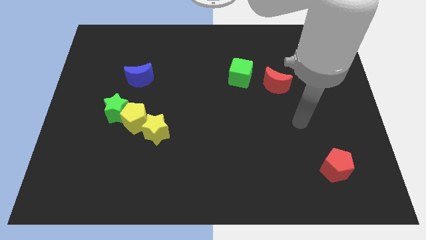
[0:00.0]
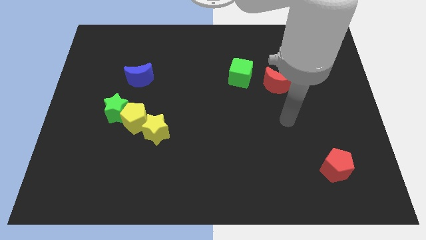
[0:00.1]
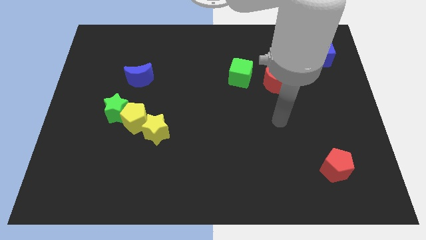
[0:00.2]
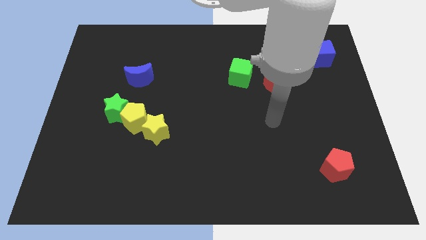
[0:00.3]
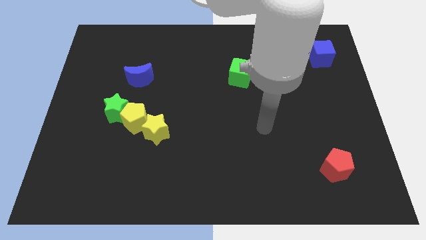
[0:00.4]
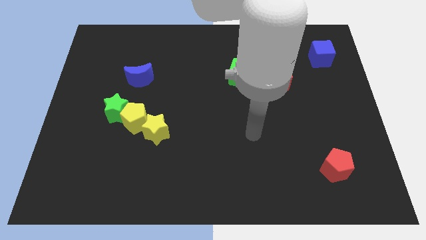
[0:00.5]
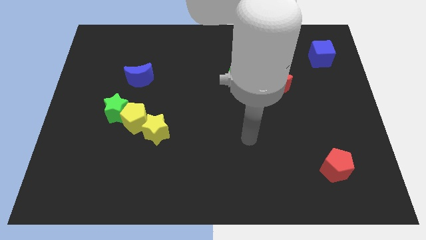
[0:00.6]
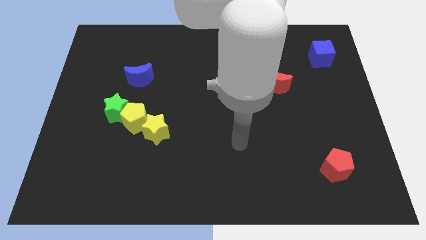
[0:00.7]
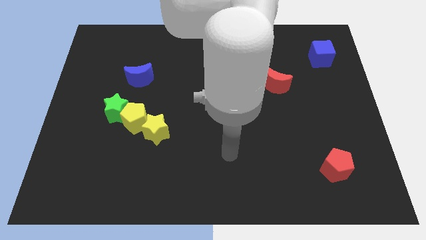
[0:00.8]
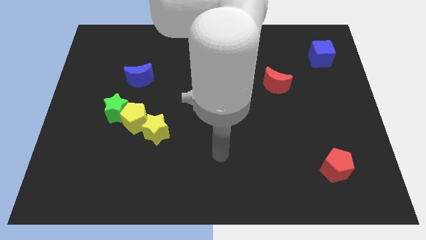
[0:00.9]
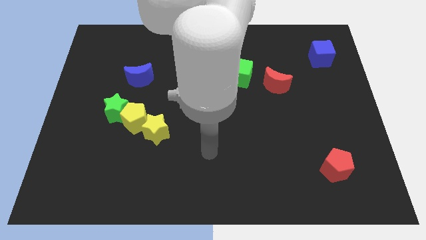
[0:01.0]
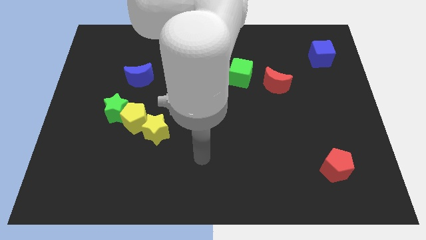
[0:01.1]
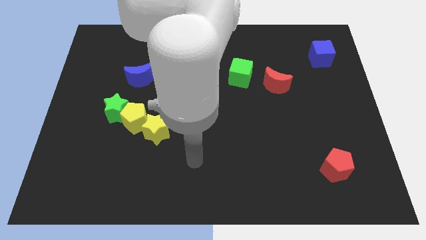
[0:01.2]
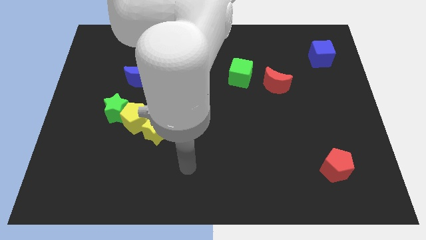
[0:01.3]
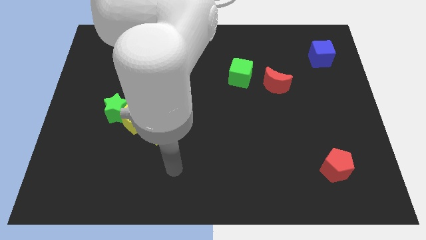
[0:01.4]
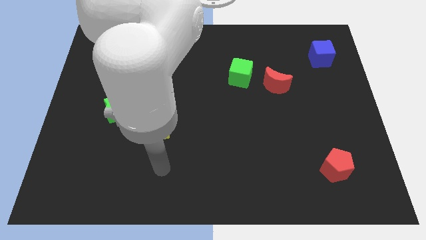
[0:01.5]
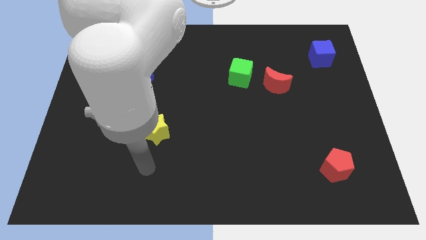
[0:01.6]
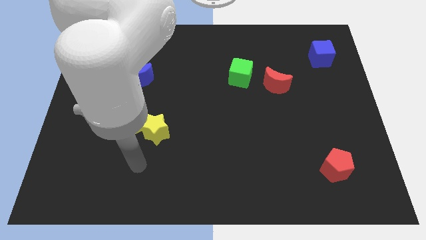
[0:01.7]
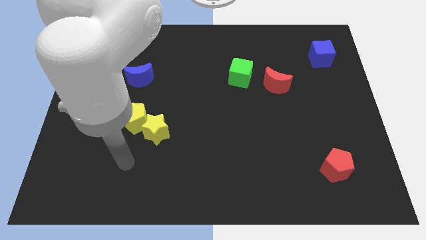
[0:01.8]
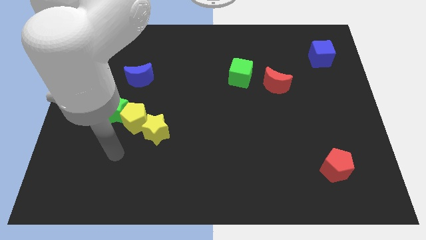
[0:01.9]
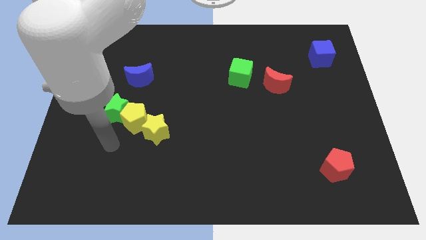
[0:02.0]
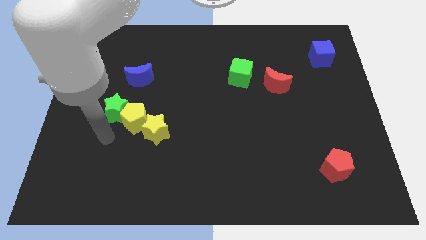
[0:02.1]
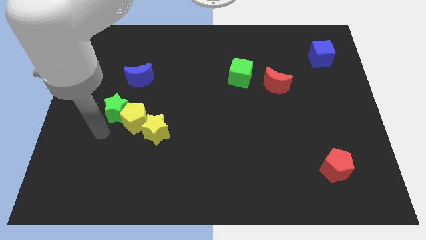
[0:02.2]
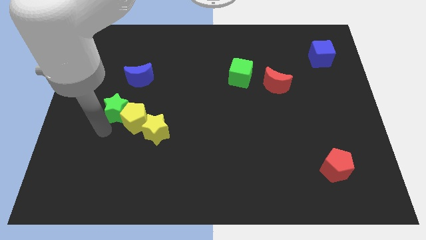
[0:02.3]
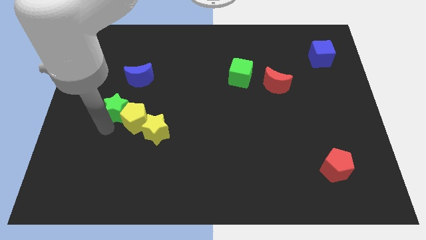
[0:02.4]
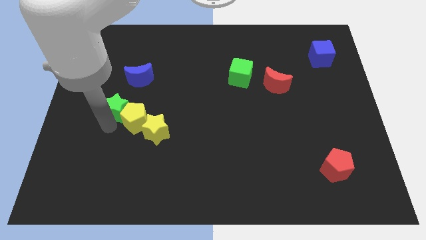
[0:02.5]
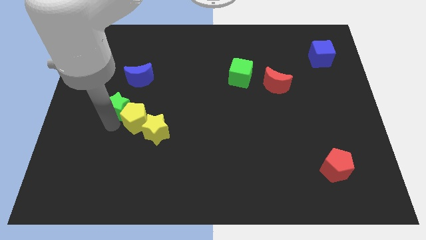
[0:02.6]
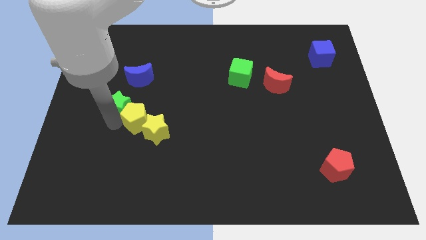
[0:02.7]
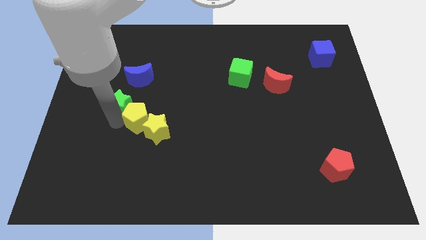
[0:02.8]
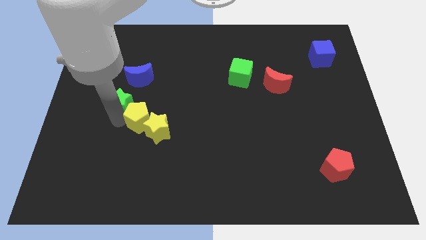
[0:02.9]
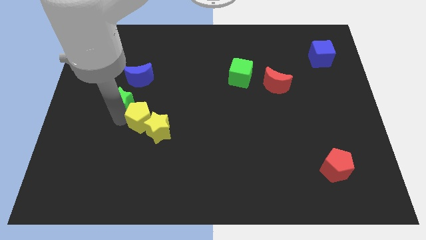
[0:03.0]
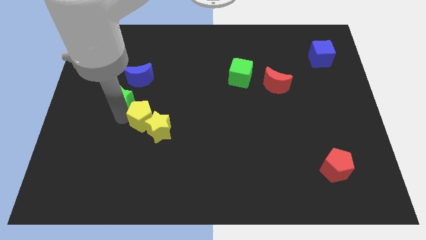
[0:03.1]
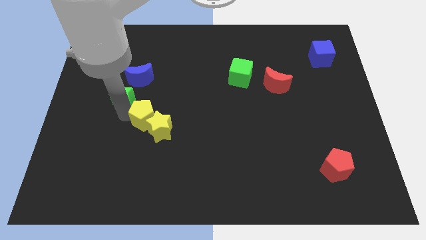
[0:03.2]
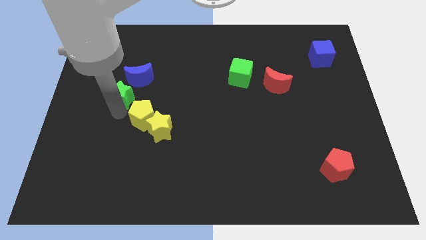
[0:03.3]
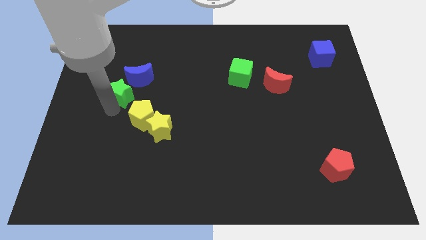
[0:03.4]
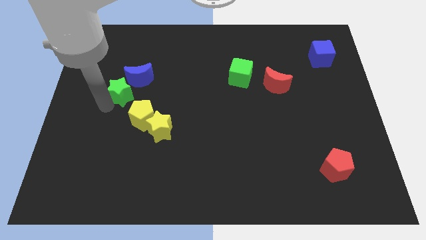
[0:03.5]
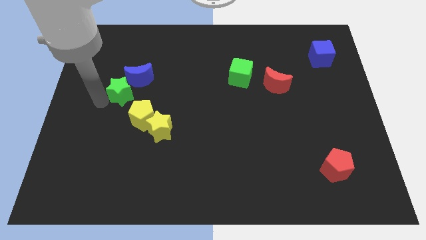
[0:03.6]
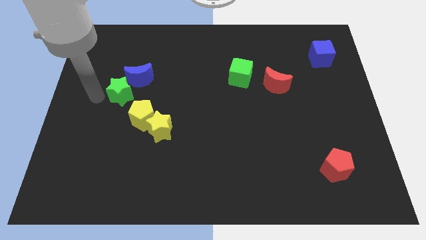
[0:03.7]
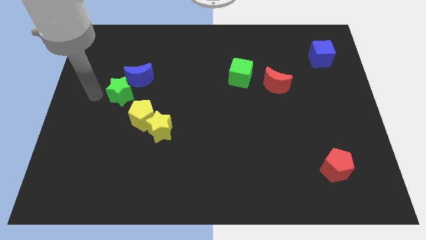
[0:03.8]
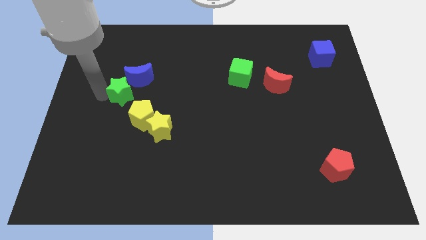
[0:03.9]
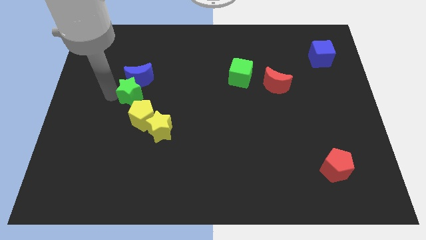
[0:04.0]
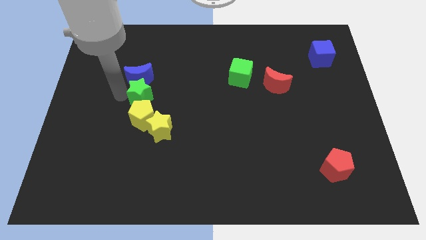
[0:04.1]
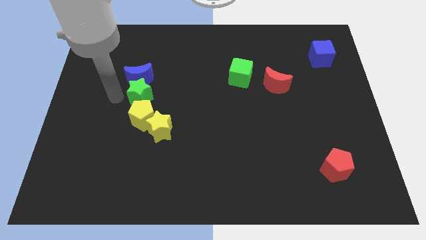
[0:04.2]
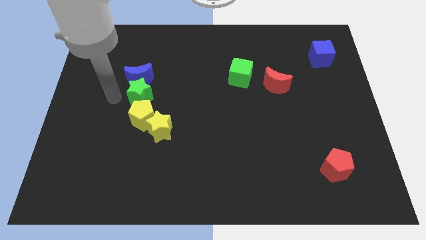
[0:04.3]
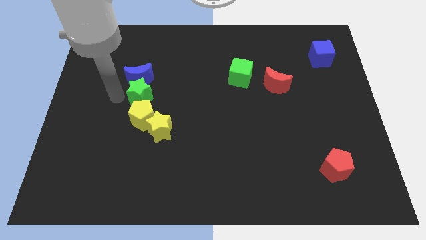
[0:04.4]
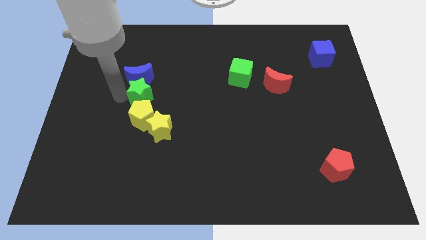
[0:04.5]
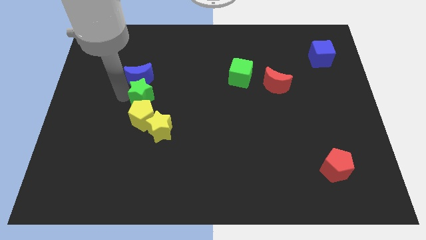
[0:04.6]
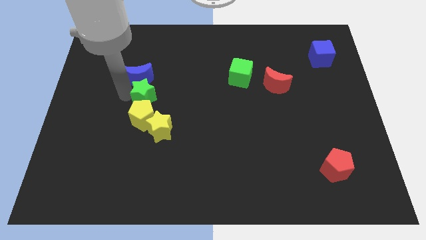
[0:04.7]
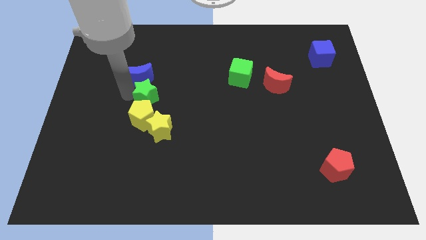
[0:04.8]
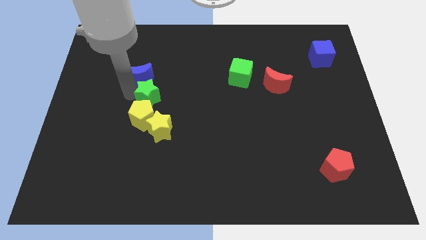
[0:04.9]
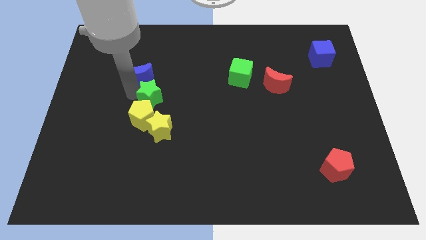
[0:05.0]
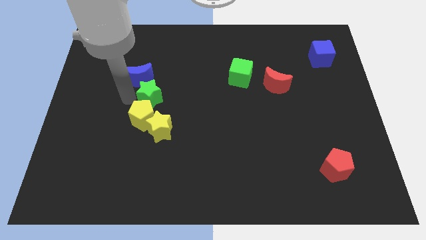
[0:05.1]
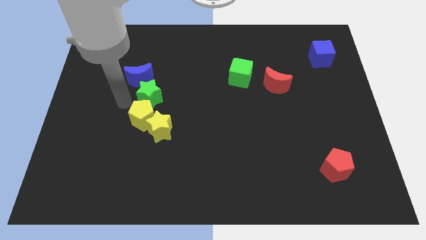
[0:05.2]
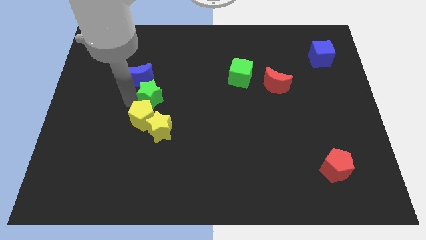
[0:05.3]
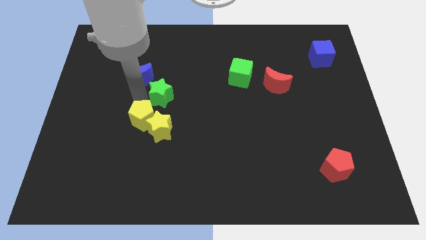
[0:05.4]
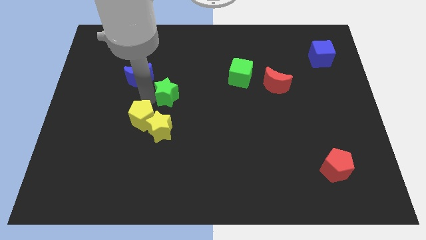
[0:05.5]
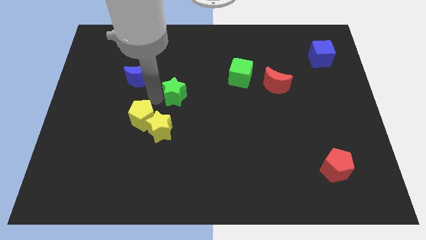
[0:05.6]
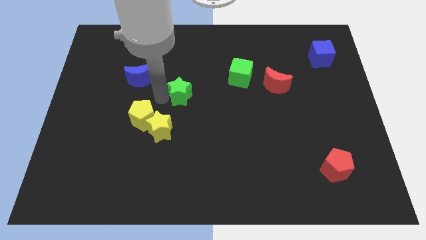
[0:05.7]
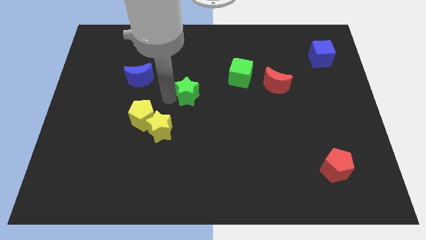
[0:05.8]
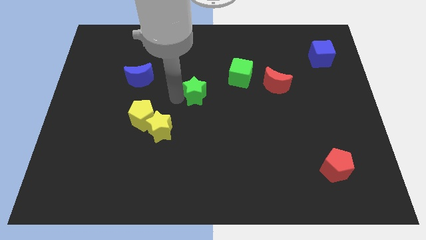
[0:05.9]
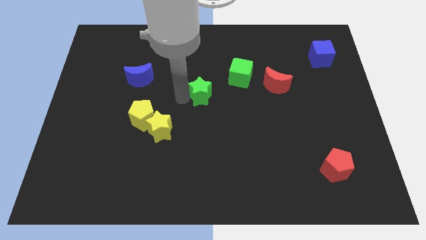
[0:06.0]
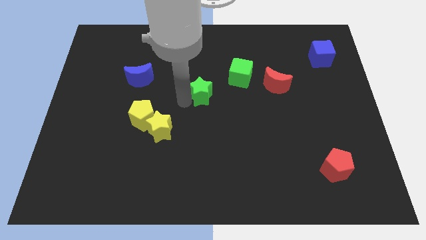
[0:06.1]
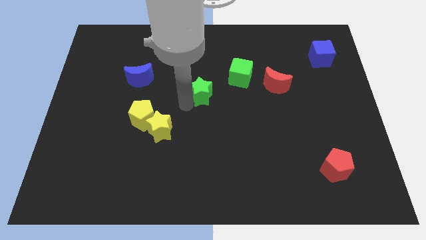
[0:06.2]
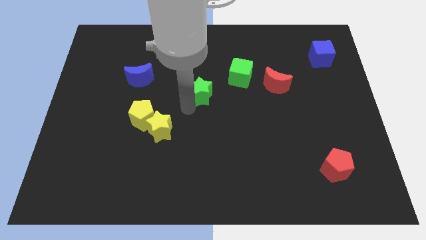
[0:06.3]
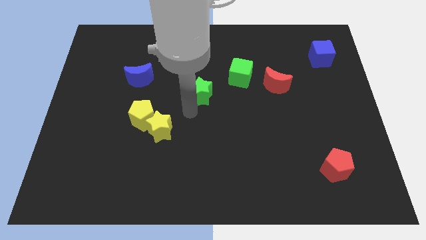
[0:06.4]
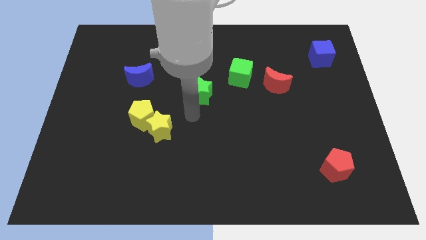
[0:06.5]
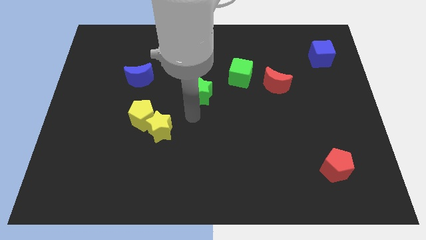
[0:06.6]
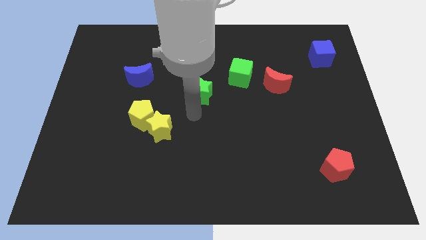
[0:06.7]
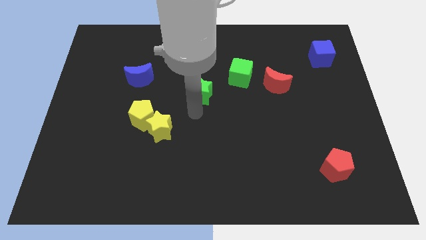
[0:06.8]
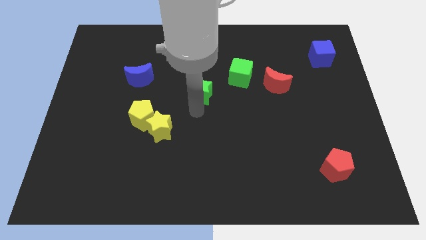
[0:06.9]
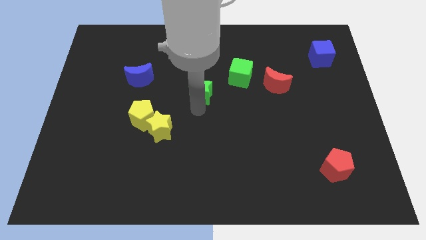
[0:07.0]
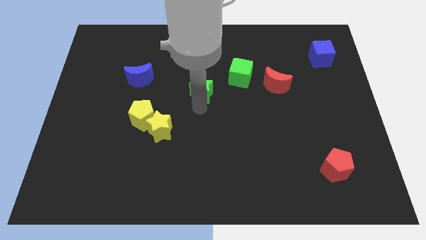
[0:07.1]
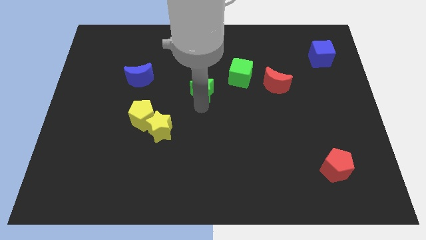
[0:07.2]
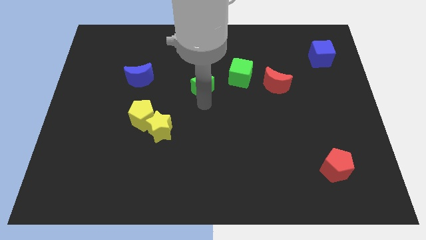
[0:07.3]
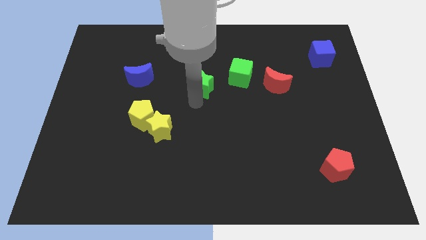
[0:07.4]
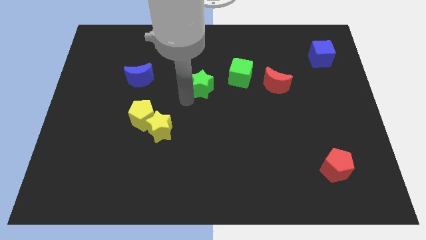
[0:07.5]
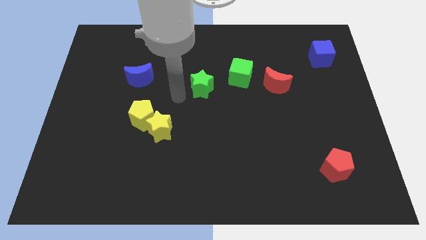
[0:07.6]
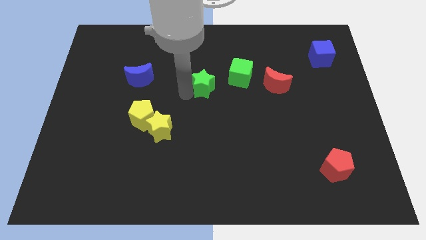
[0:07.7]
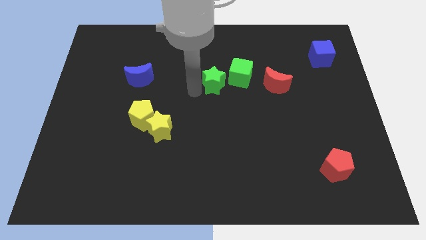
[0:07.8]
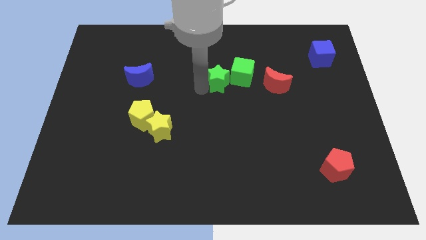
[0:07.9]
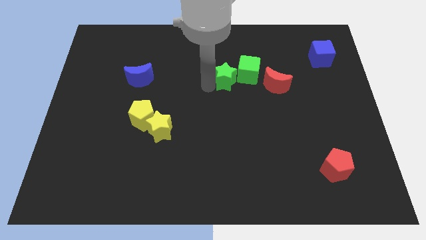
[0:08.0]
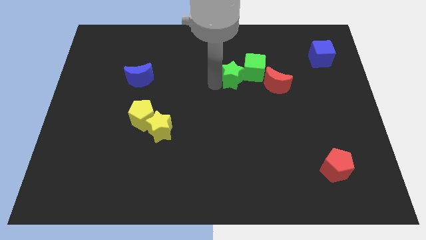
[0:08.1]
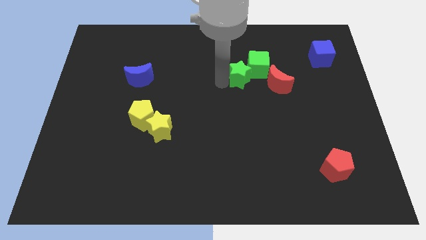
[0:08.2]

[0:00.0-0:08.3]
move the green star to the green cube
